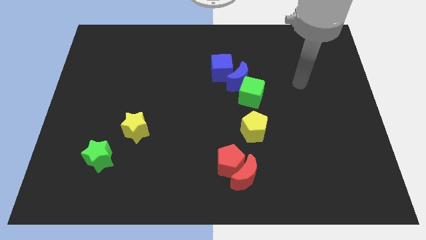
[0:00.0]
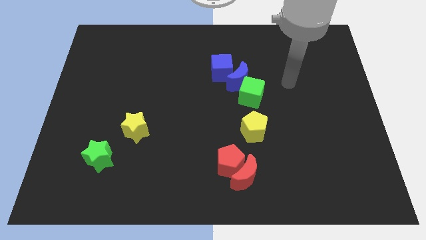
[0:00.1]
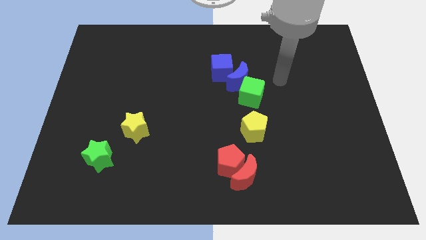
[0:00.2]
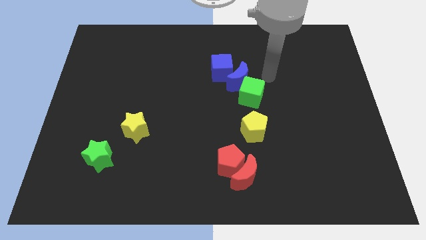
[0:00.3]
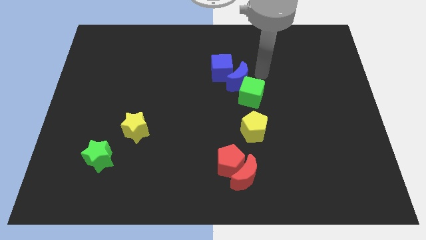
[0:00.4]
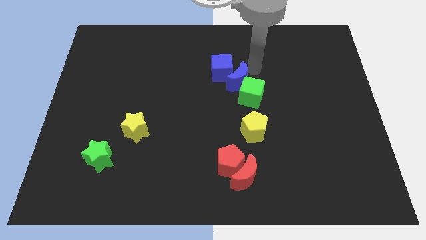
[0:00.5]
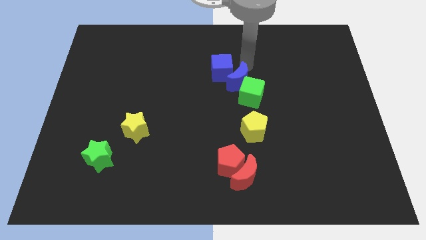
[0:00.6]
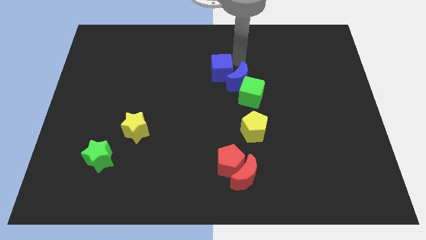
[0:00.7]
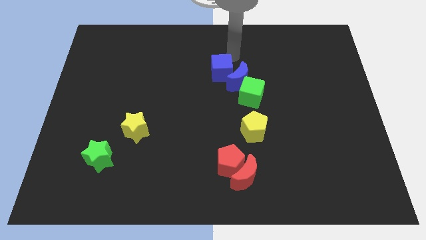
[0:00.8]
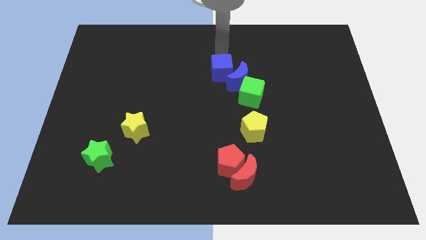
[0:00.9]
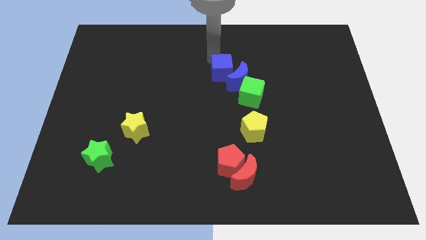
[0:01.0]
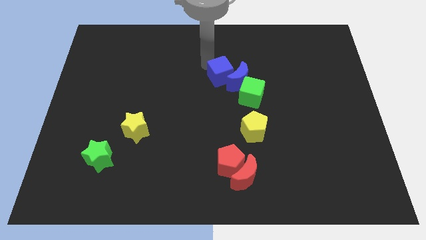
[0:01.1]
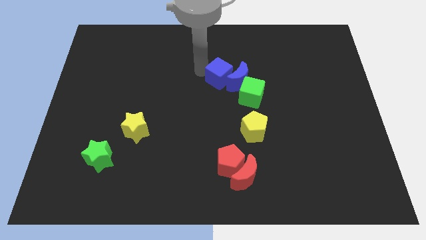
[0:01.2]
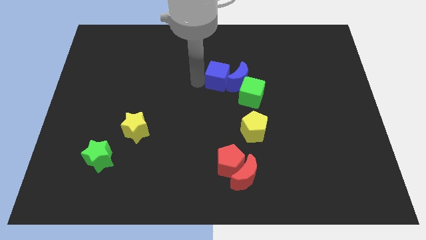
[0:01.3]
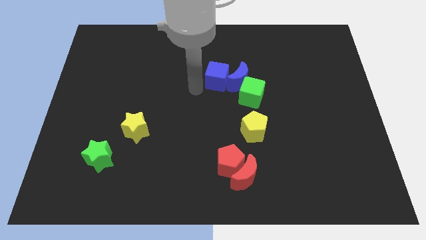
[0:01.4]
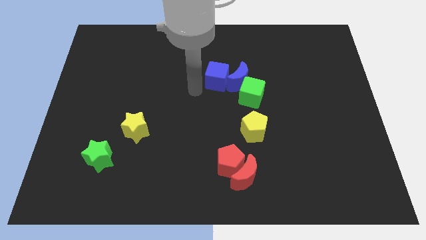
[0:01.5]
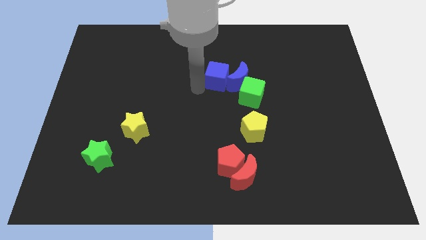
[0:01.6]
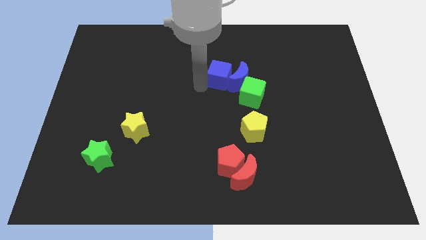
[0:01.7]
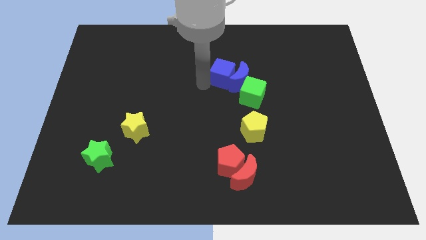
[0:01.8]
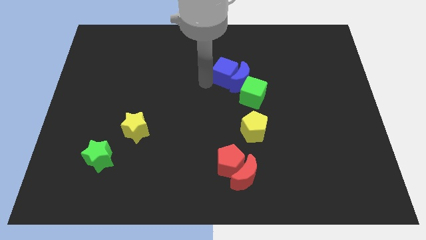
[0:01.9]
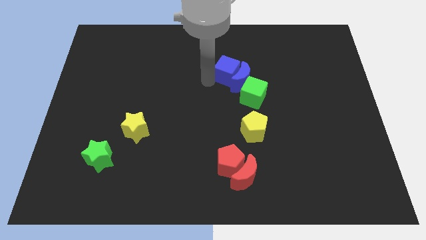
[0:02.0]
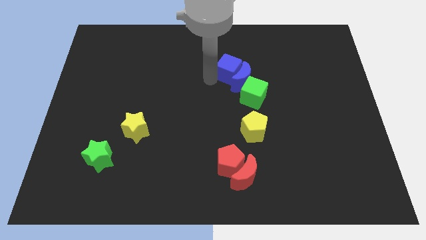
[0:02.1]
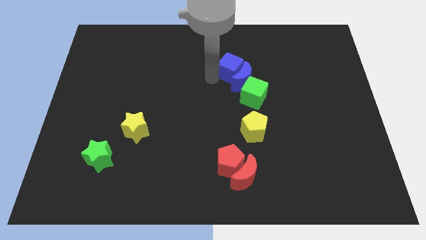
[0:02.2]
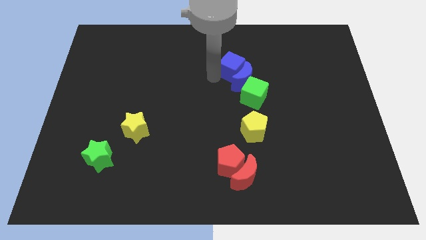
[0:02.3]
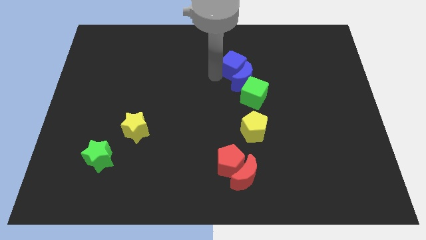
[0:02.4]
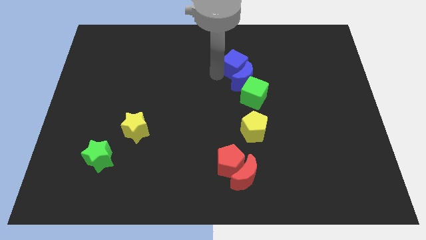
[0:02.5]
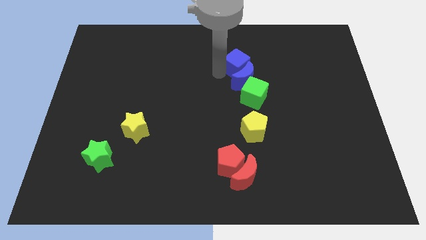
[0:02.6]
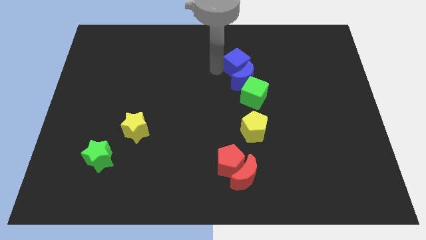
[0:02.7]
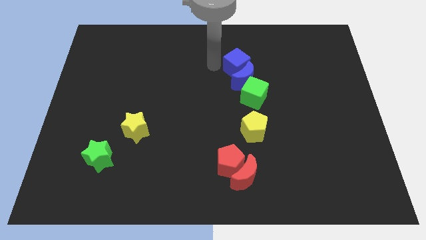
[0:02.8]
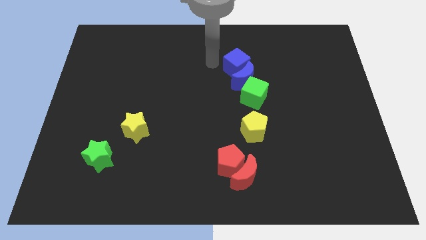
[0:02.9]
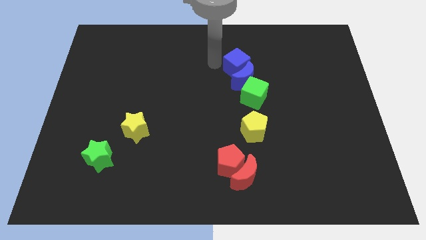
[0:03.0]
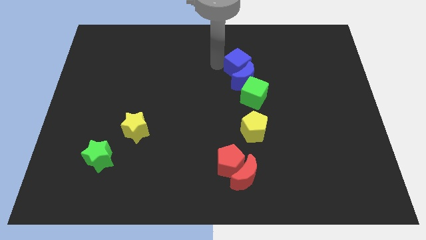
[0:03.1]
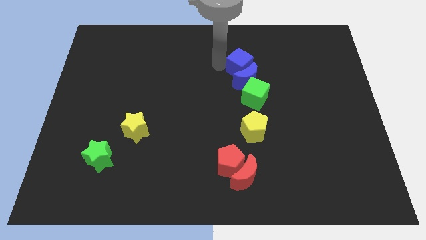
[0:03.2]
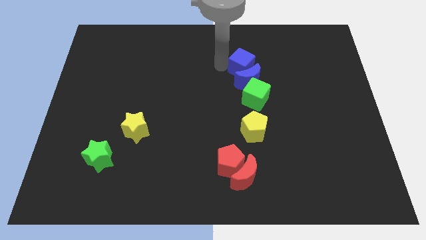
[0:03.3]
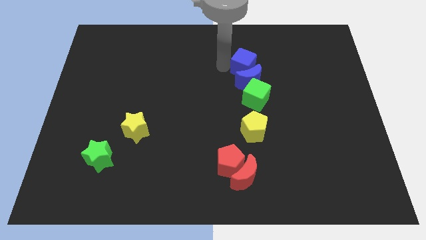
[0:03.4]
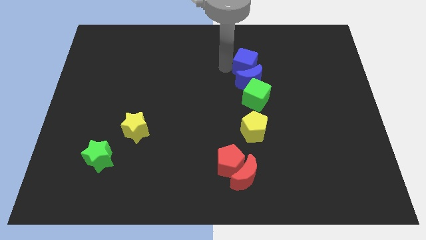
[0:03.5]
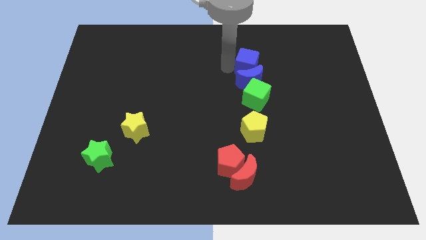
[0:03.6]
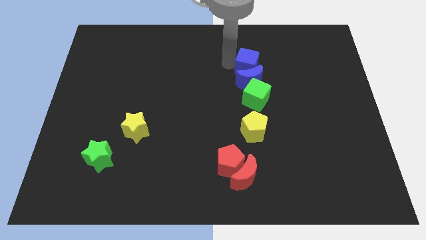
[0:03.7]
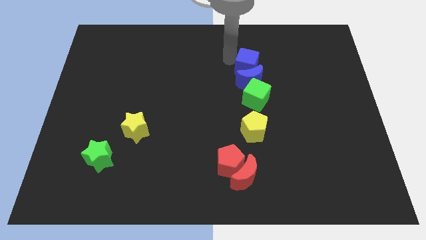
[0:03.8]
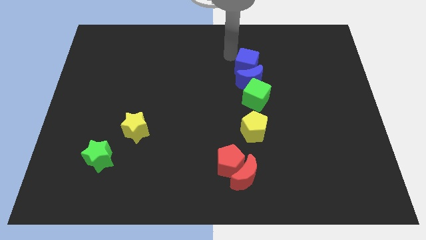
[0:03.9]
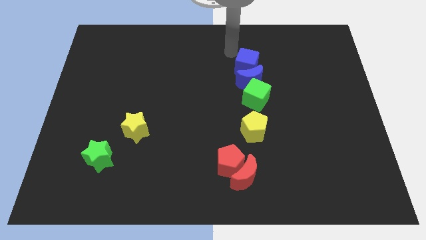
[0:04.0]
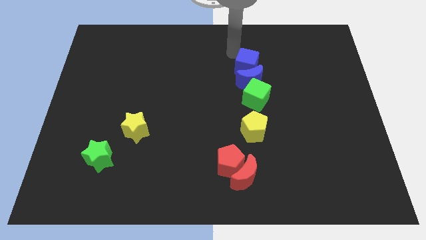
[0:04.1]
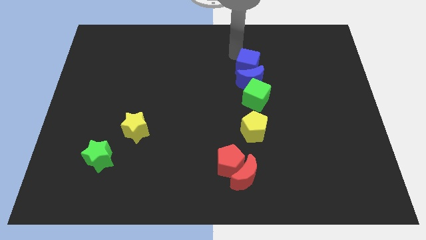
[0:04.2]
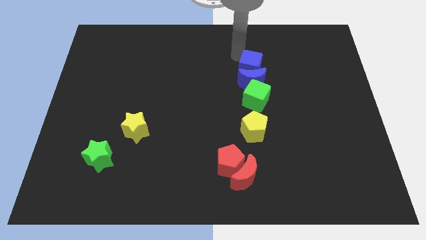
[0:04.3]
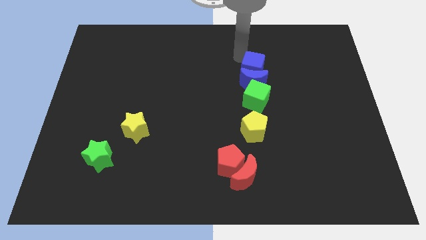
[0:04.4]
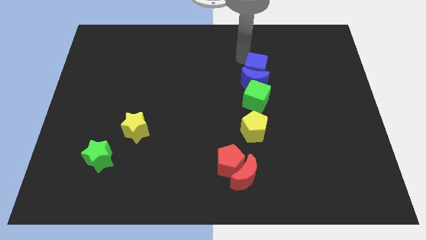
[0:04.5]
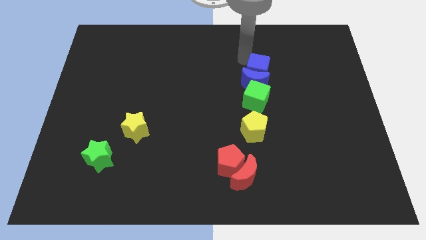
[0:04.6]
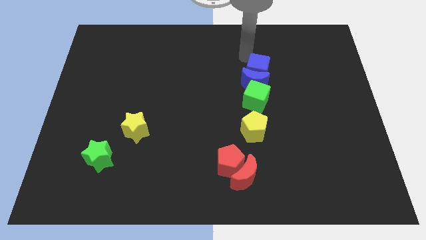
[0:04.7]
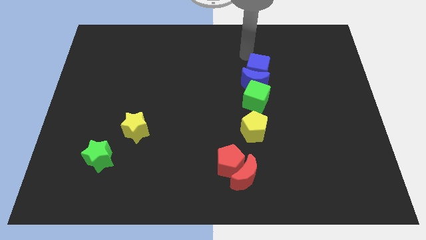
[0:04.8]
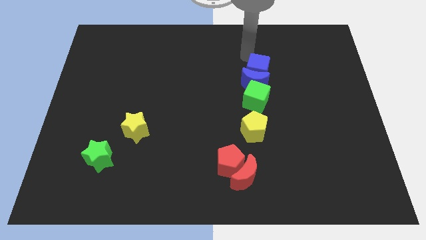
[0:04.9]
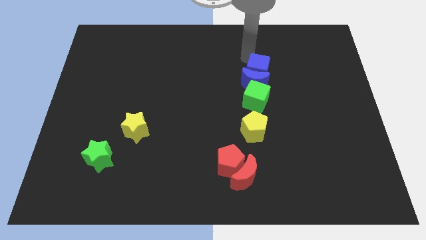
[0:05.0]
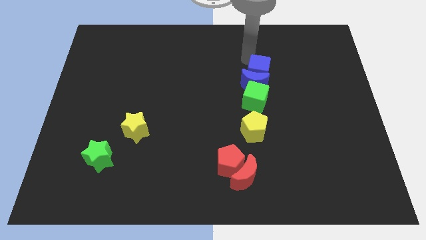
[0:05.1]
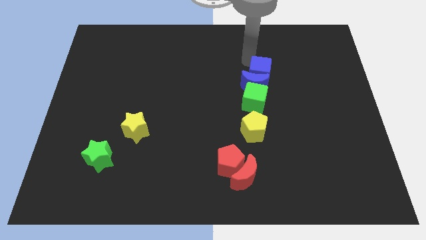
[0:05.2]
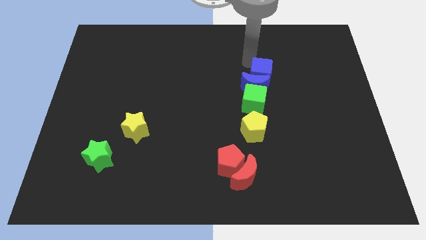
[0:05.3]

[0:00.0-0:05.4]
slide the blue cube a bit diagonally downwards and right

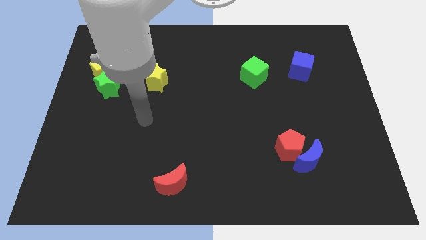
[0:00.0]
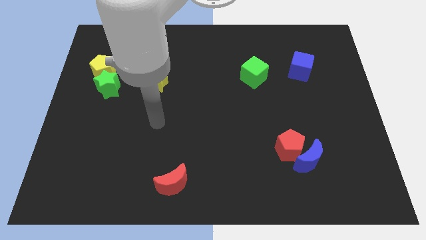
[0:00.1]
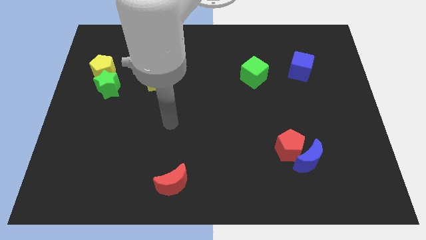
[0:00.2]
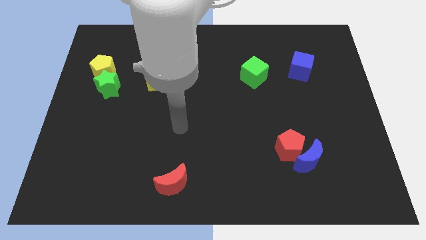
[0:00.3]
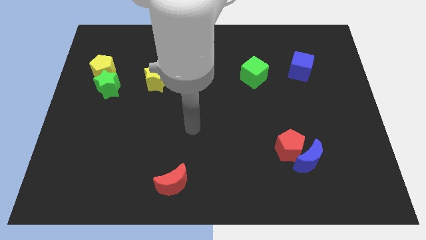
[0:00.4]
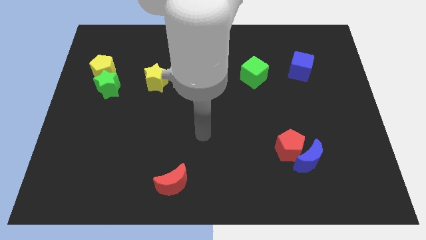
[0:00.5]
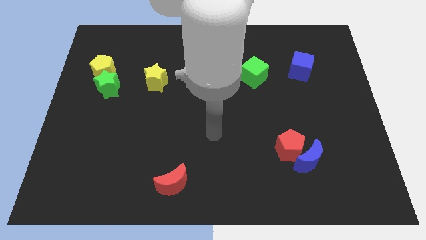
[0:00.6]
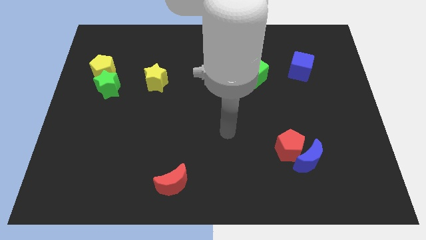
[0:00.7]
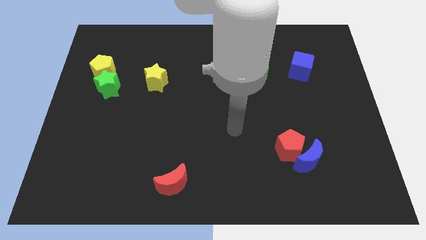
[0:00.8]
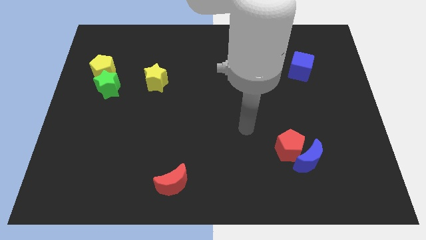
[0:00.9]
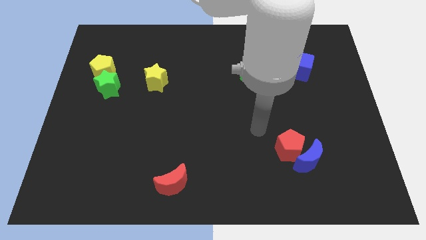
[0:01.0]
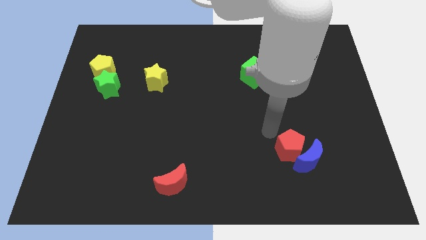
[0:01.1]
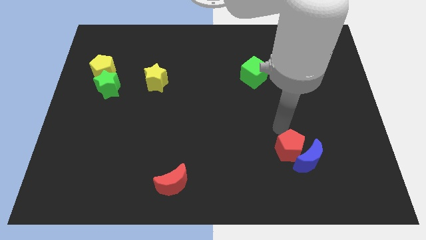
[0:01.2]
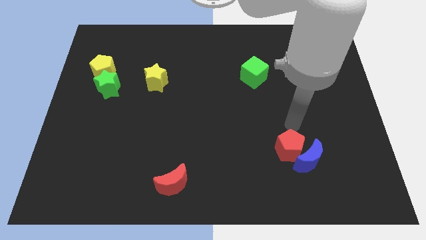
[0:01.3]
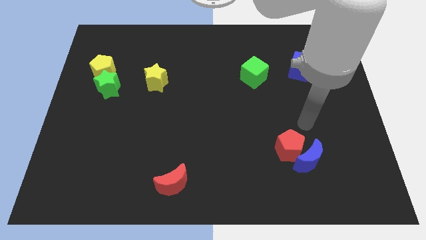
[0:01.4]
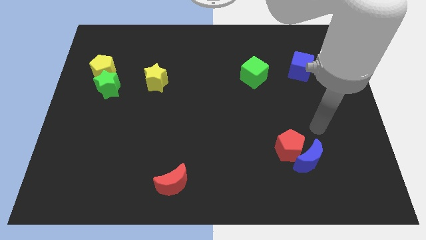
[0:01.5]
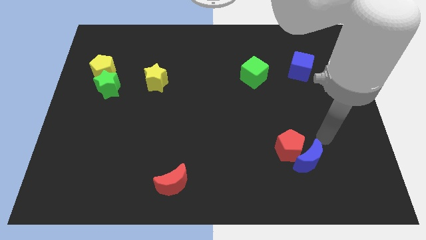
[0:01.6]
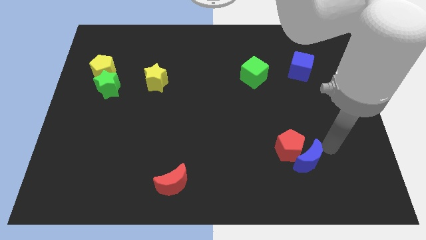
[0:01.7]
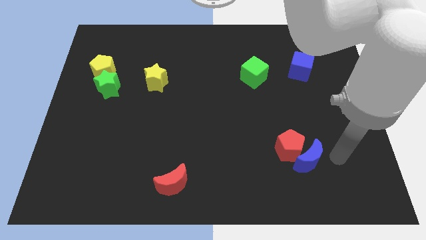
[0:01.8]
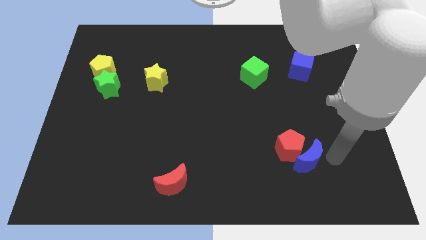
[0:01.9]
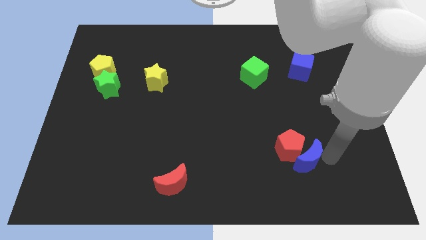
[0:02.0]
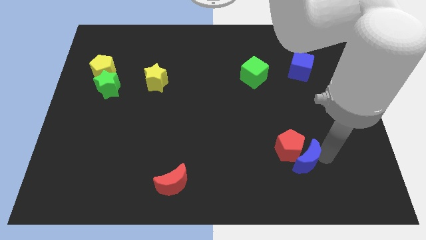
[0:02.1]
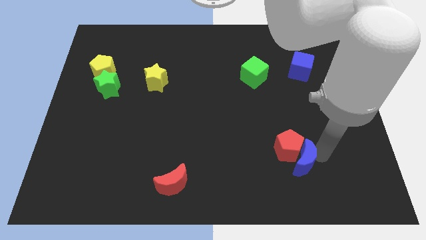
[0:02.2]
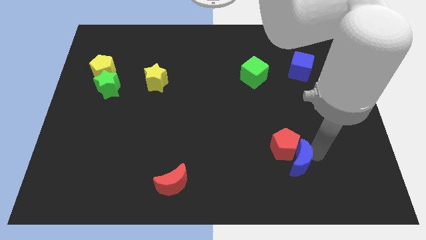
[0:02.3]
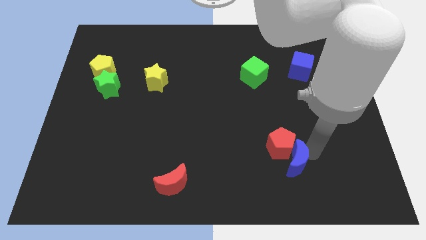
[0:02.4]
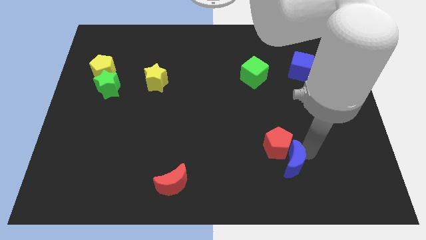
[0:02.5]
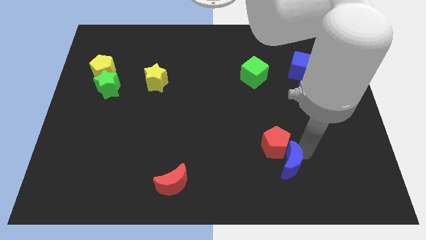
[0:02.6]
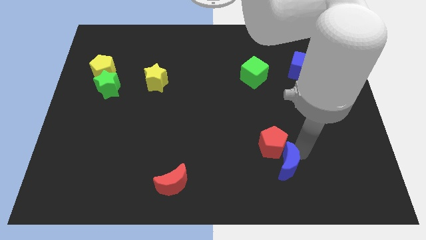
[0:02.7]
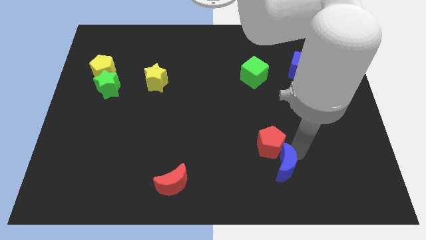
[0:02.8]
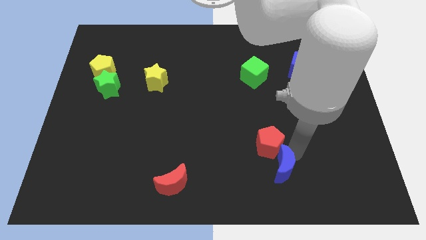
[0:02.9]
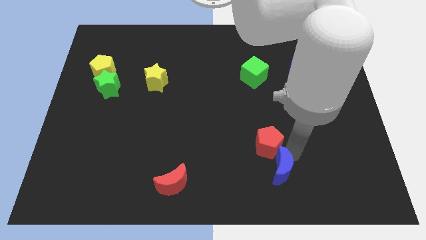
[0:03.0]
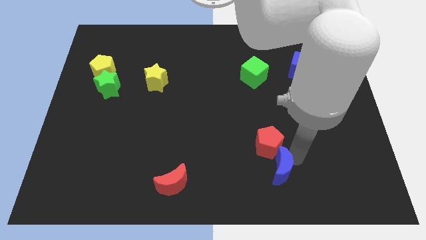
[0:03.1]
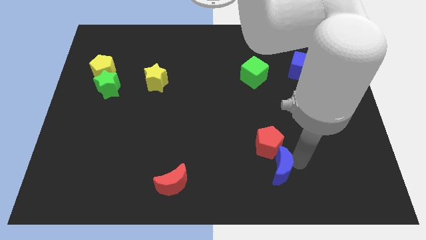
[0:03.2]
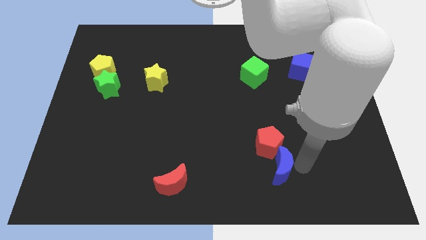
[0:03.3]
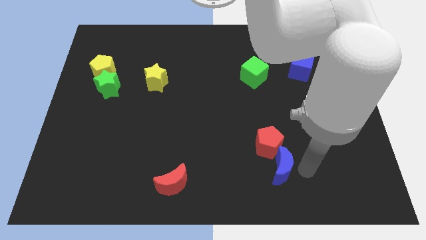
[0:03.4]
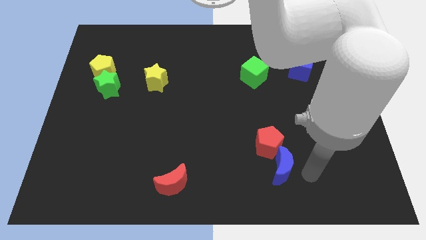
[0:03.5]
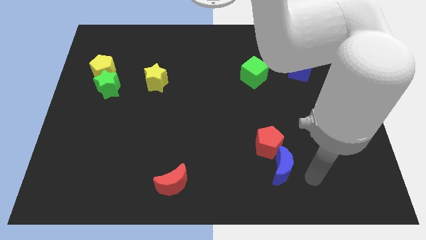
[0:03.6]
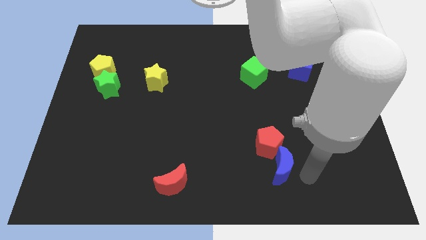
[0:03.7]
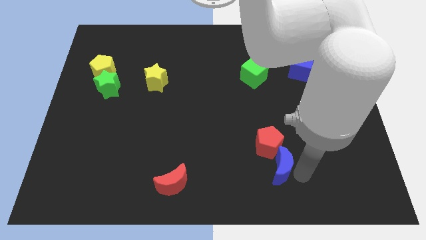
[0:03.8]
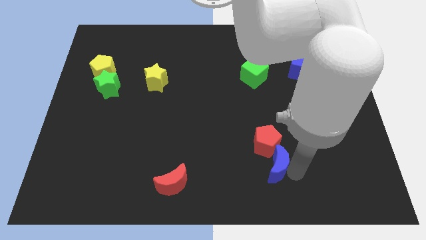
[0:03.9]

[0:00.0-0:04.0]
slightly push the blue moon to the left
